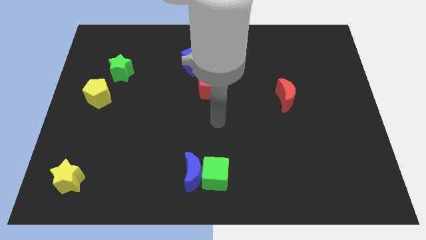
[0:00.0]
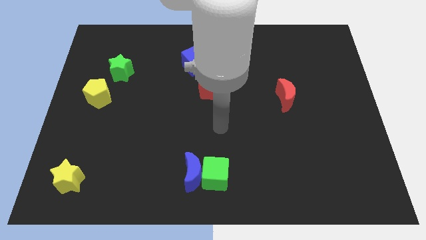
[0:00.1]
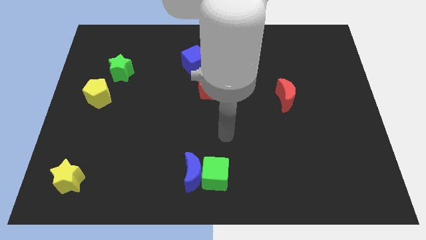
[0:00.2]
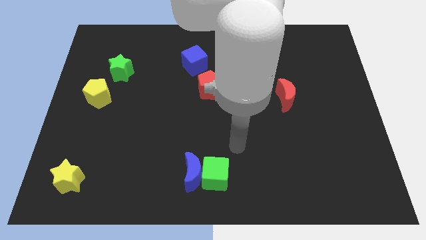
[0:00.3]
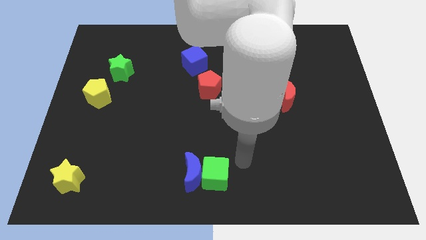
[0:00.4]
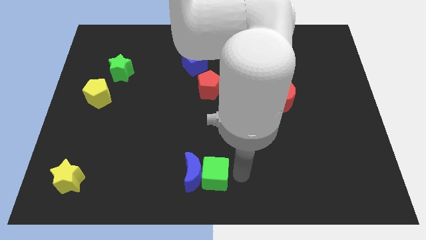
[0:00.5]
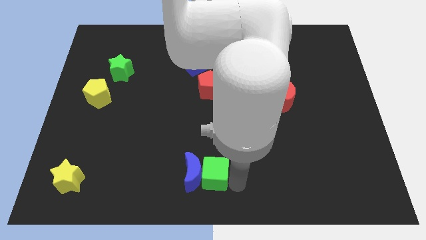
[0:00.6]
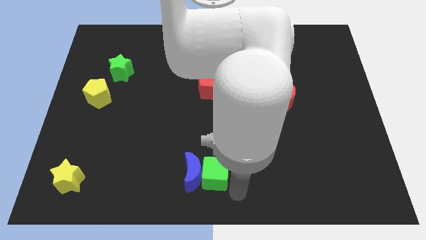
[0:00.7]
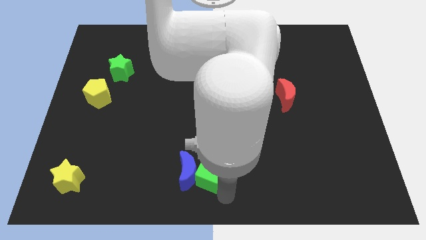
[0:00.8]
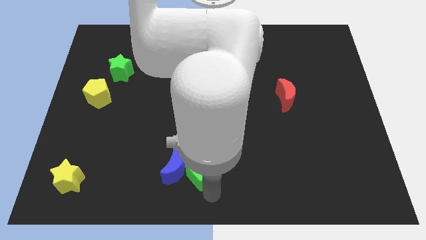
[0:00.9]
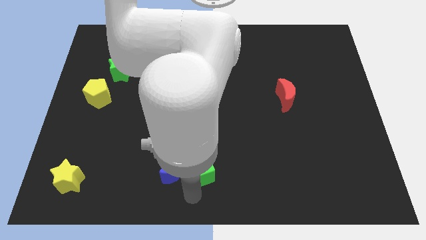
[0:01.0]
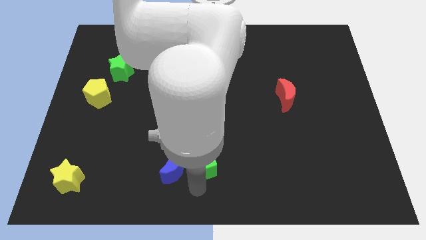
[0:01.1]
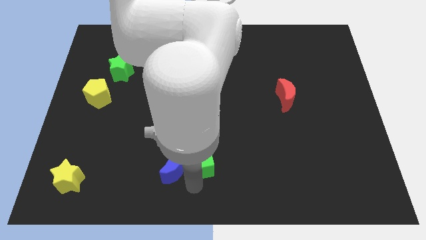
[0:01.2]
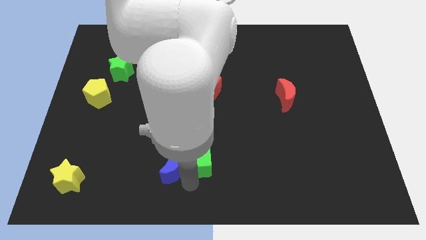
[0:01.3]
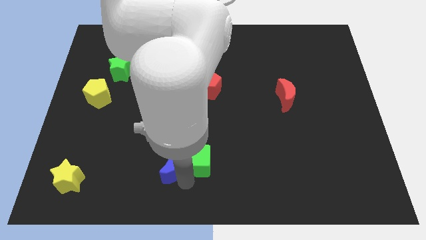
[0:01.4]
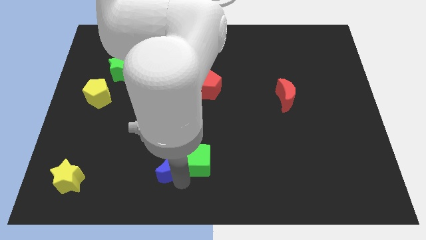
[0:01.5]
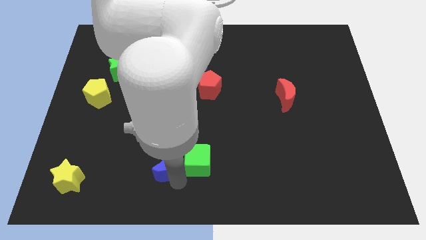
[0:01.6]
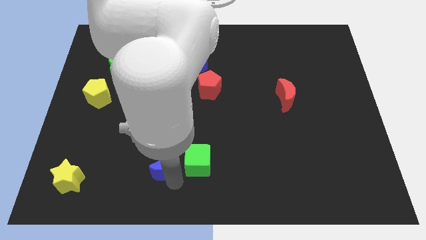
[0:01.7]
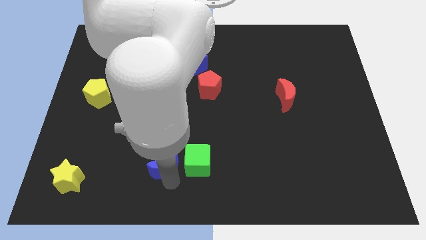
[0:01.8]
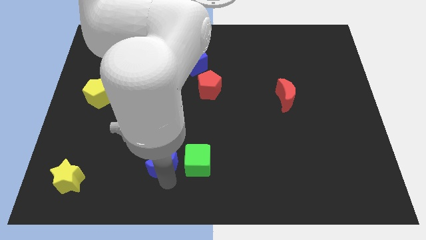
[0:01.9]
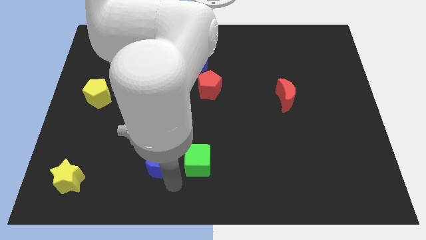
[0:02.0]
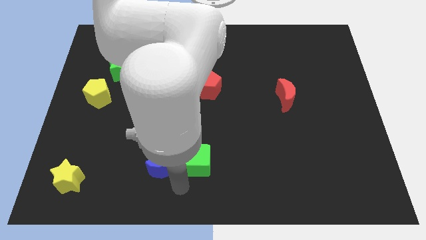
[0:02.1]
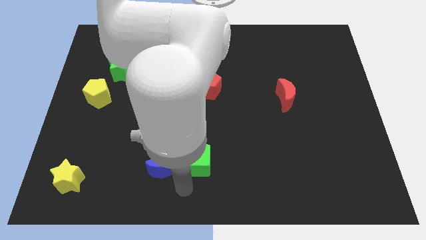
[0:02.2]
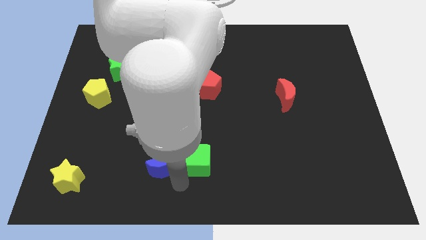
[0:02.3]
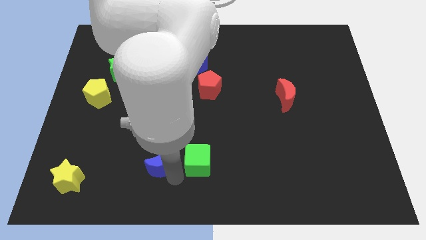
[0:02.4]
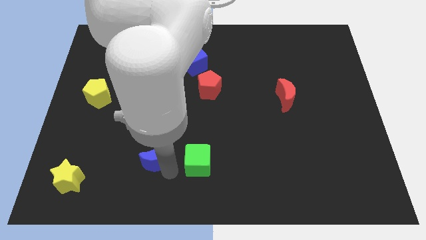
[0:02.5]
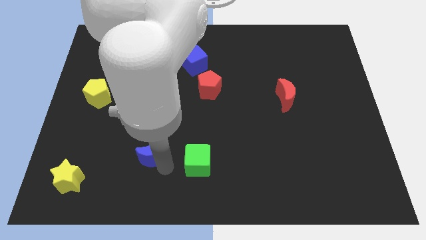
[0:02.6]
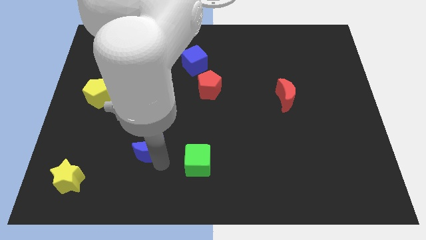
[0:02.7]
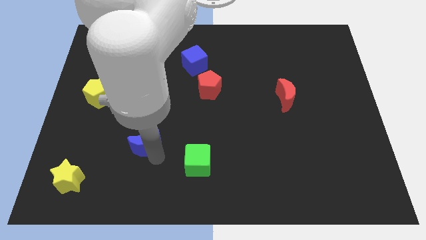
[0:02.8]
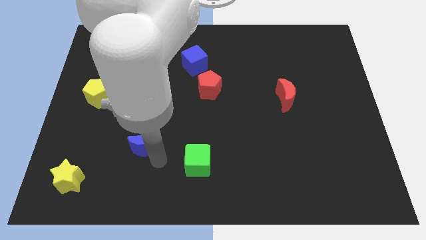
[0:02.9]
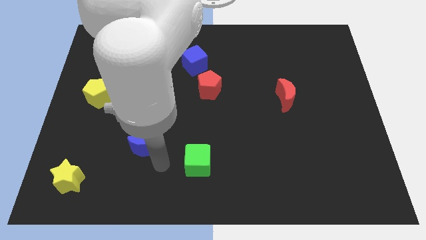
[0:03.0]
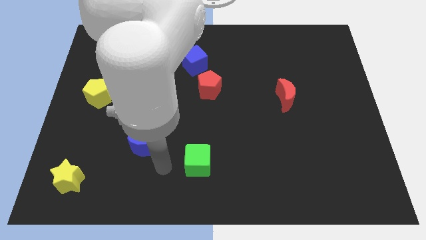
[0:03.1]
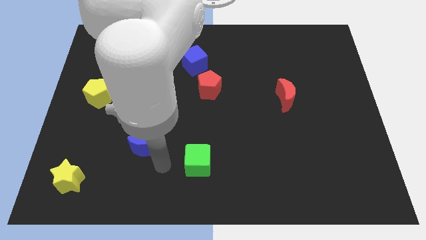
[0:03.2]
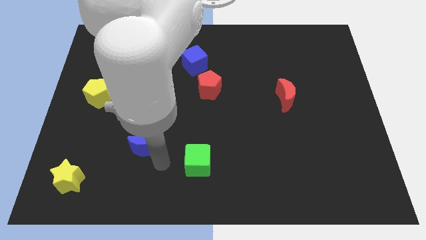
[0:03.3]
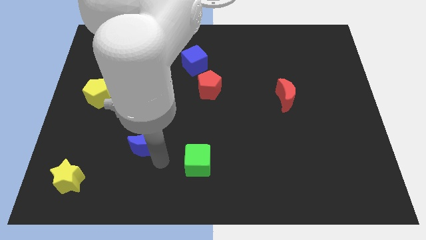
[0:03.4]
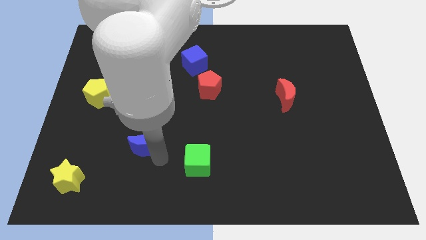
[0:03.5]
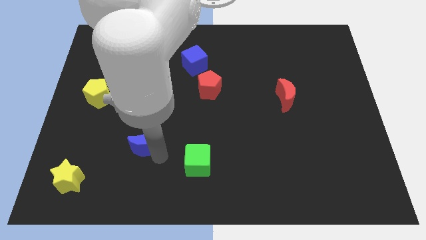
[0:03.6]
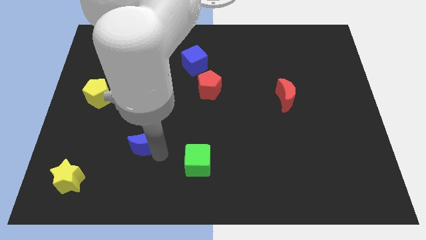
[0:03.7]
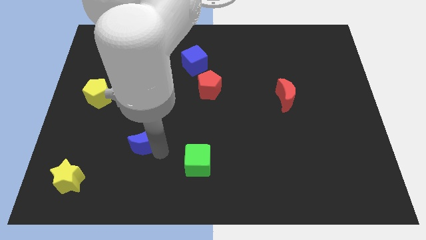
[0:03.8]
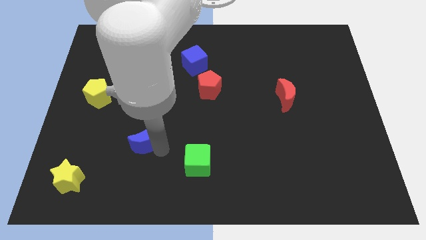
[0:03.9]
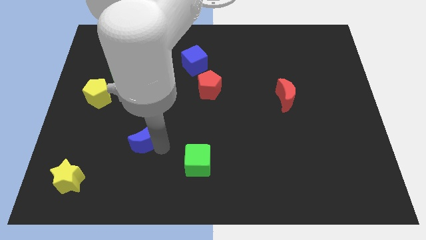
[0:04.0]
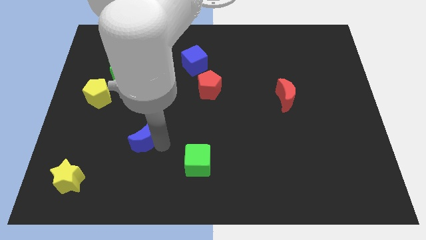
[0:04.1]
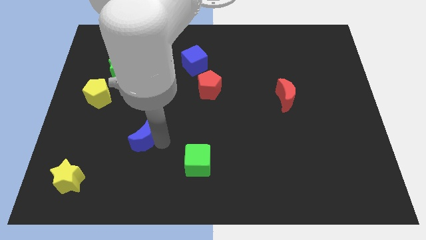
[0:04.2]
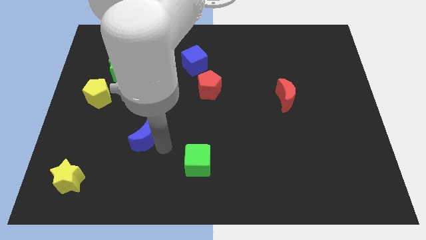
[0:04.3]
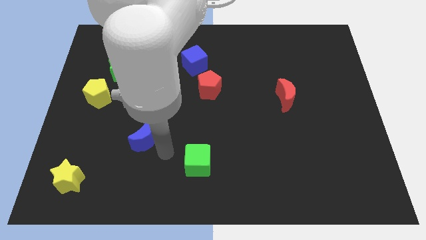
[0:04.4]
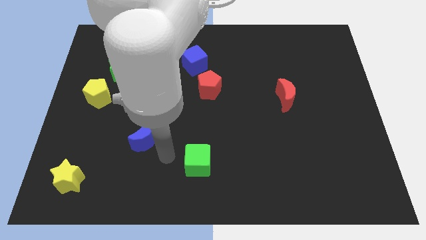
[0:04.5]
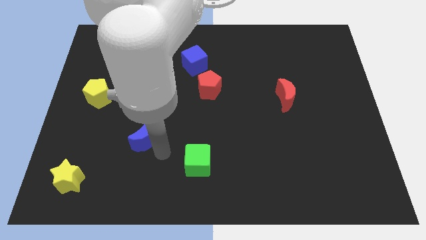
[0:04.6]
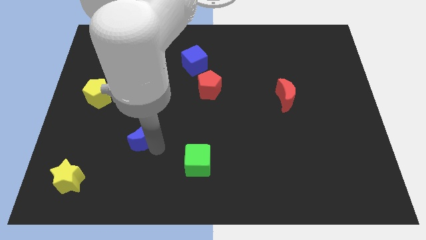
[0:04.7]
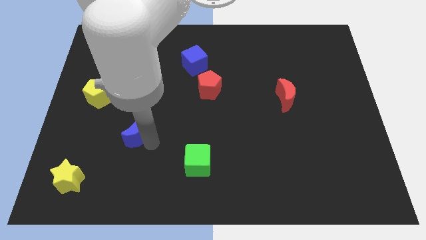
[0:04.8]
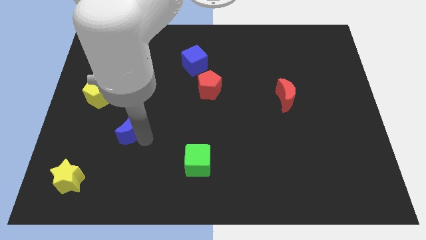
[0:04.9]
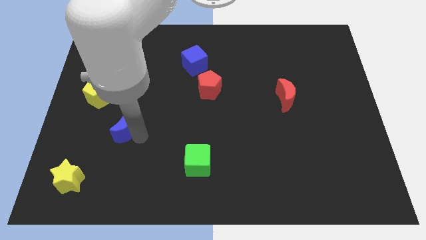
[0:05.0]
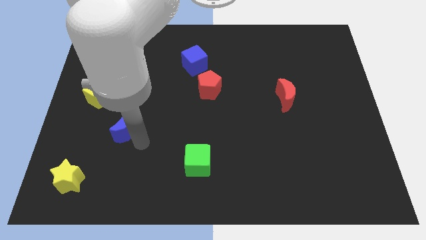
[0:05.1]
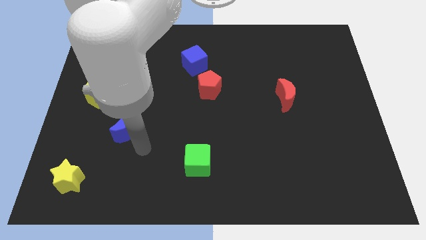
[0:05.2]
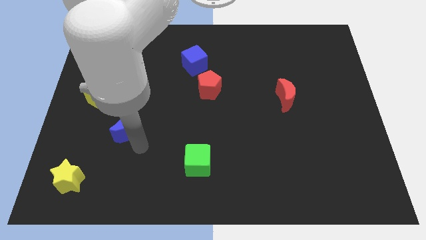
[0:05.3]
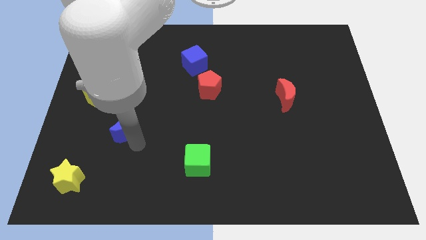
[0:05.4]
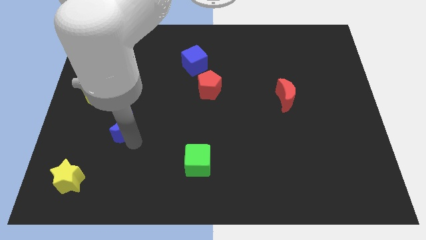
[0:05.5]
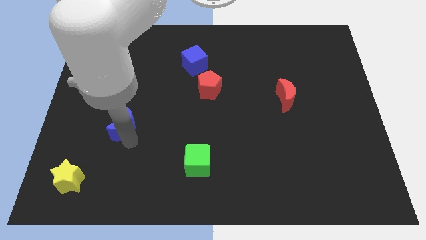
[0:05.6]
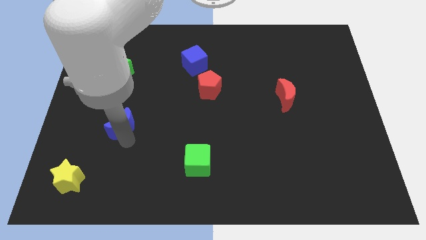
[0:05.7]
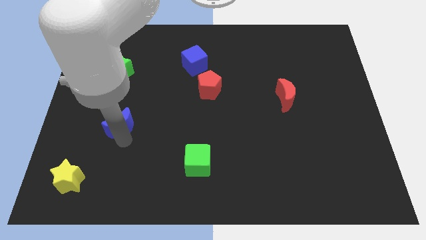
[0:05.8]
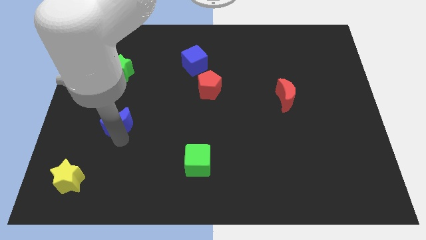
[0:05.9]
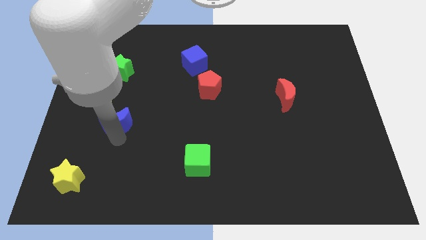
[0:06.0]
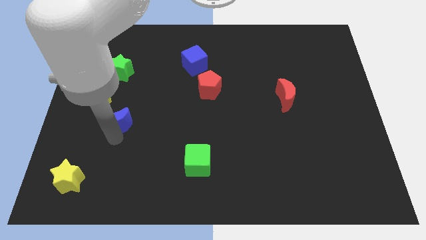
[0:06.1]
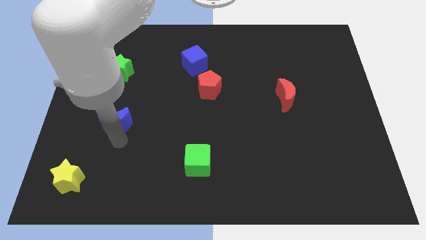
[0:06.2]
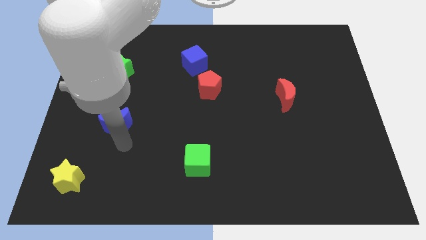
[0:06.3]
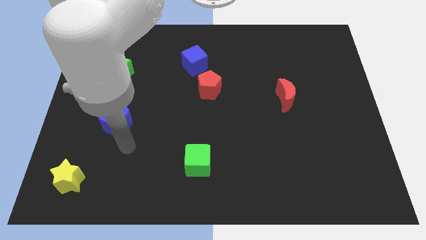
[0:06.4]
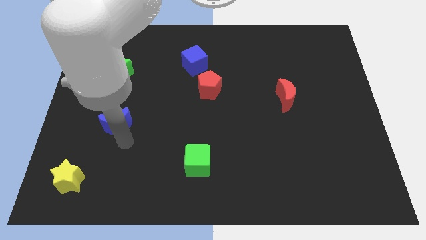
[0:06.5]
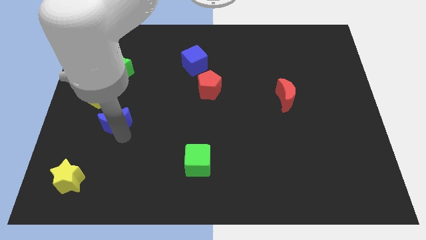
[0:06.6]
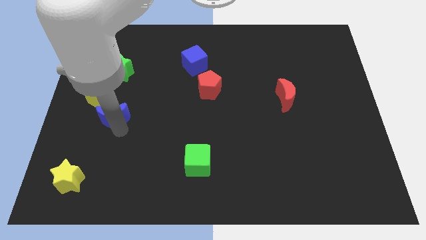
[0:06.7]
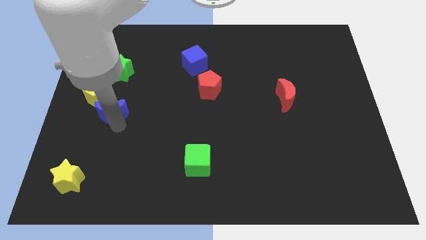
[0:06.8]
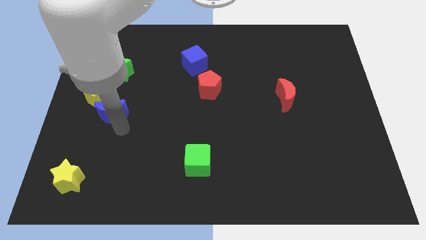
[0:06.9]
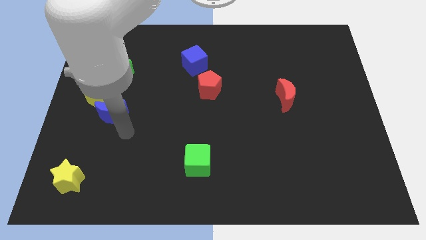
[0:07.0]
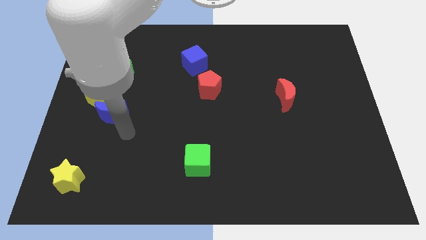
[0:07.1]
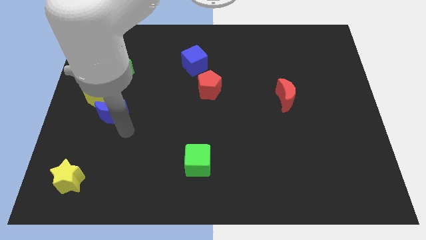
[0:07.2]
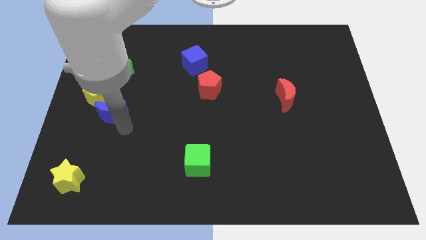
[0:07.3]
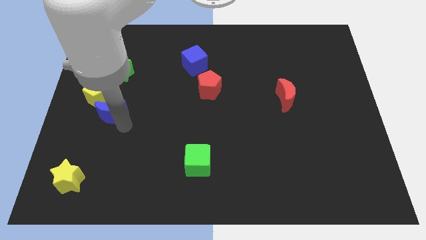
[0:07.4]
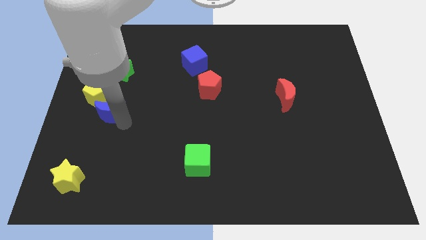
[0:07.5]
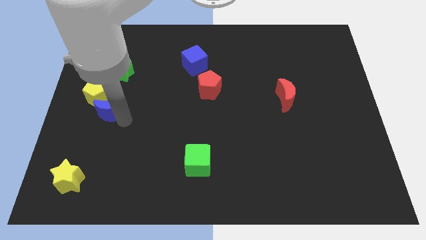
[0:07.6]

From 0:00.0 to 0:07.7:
put the blue moon to the yellow pentagon
